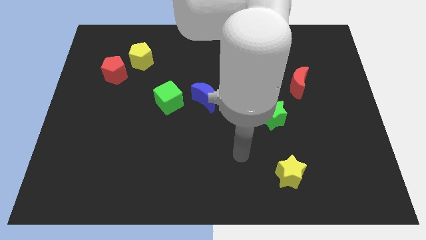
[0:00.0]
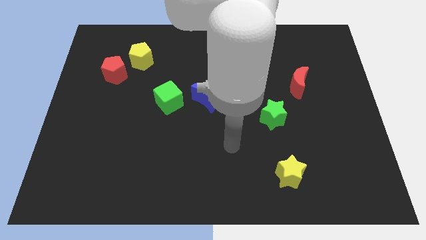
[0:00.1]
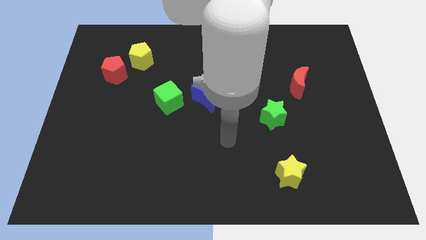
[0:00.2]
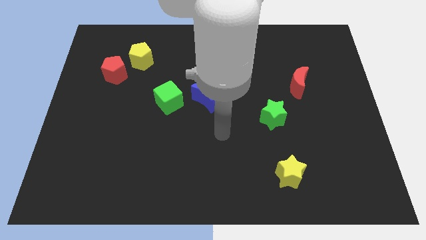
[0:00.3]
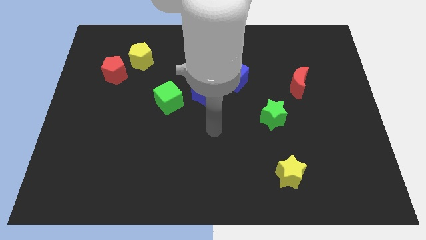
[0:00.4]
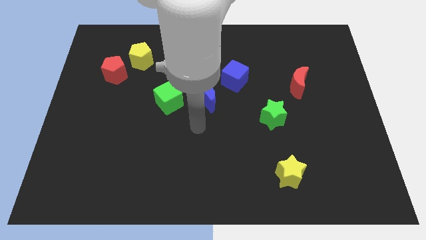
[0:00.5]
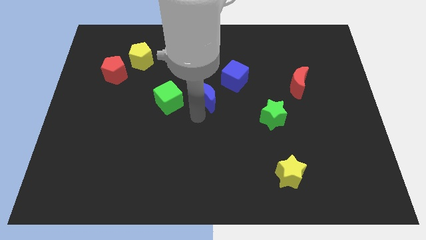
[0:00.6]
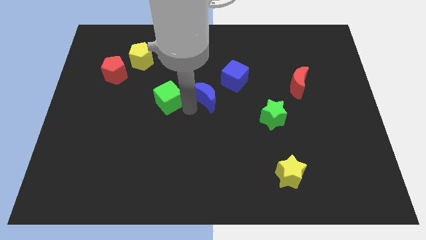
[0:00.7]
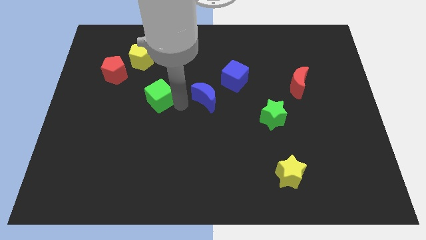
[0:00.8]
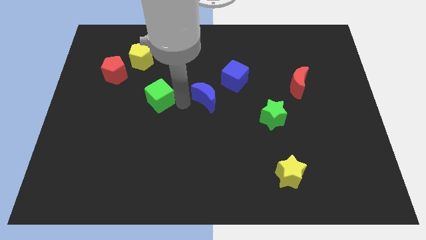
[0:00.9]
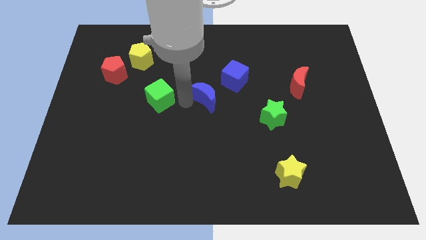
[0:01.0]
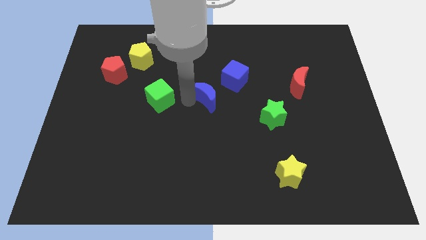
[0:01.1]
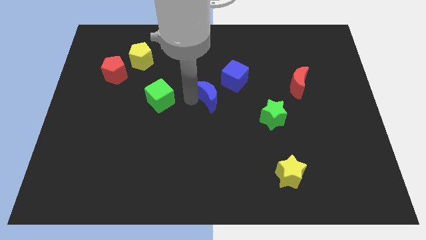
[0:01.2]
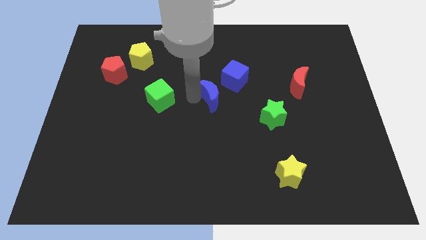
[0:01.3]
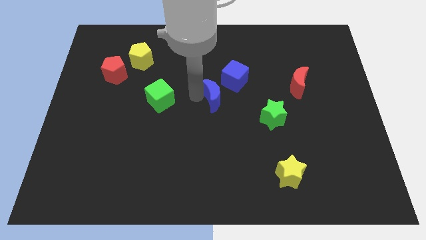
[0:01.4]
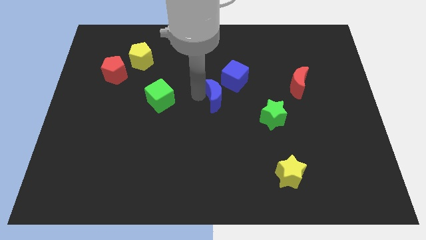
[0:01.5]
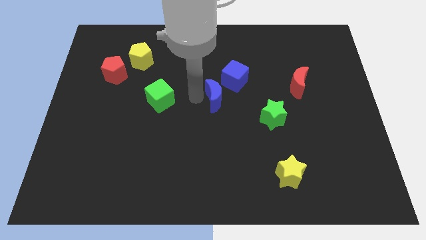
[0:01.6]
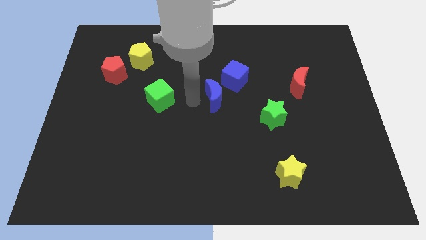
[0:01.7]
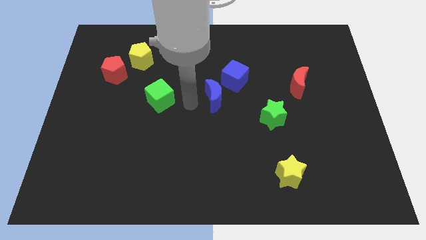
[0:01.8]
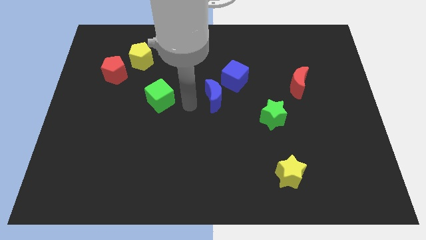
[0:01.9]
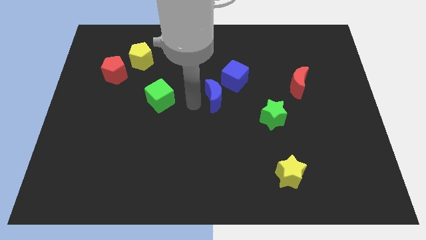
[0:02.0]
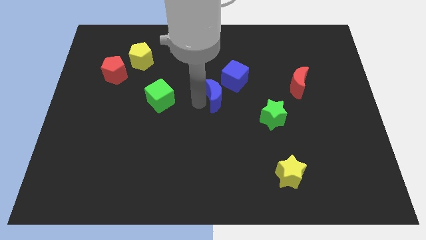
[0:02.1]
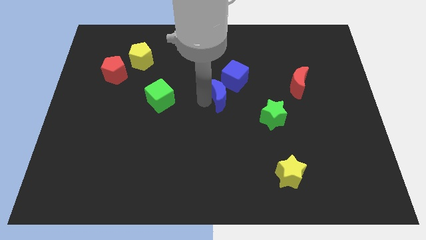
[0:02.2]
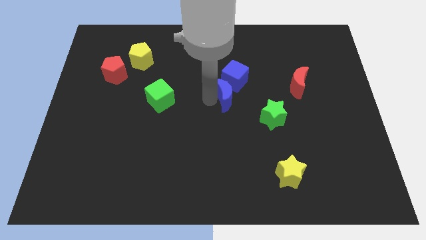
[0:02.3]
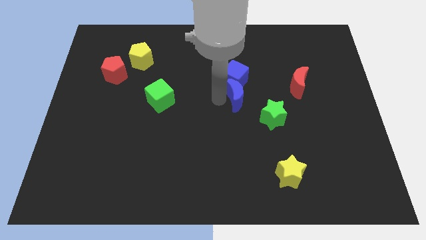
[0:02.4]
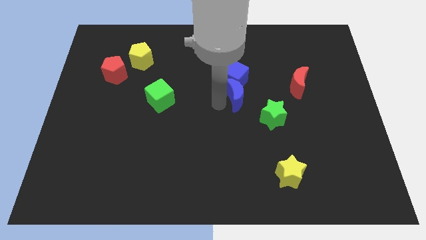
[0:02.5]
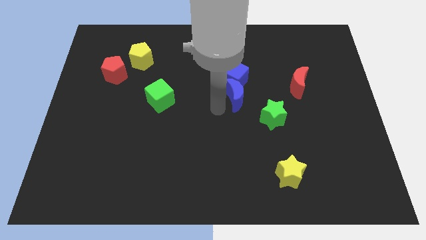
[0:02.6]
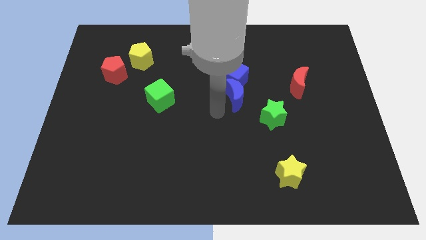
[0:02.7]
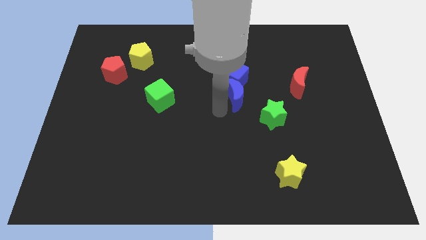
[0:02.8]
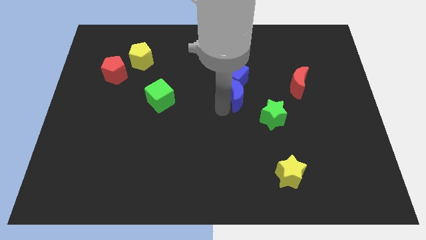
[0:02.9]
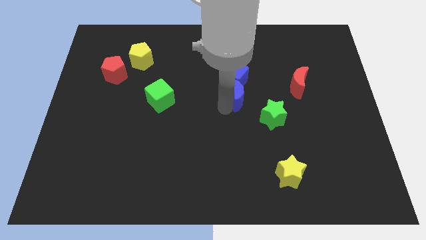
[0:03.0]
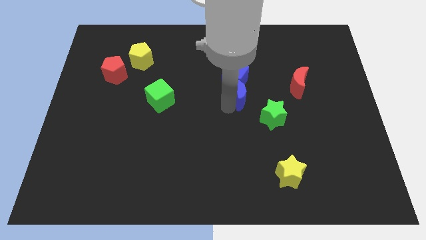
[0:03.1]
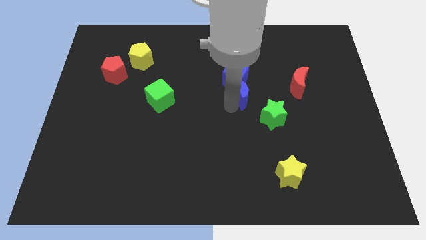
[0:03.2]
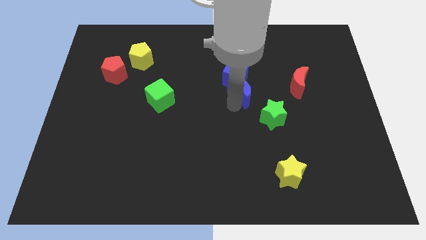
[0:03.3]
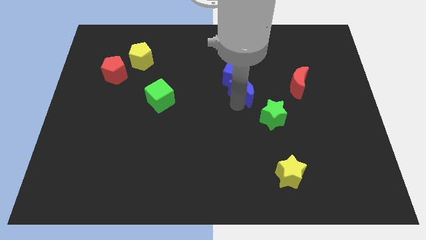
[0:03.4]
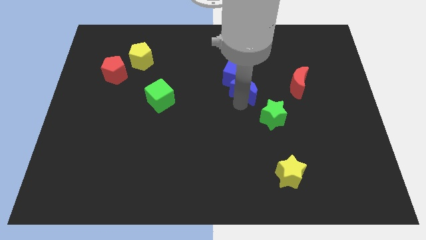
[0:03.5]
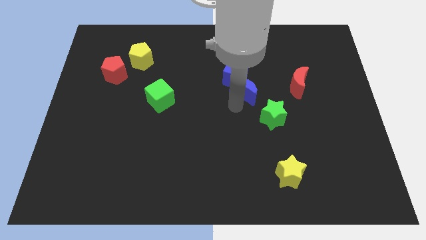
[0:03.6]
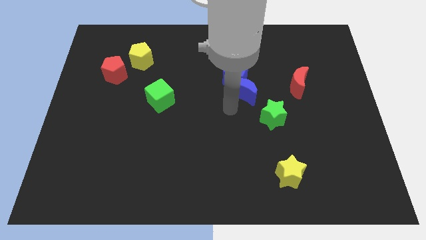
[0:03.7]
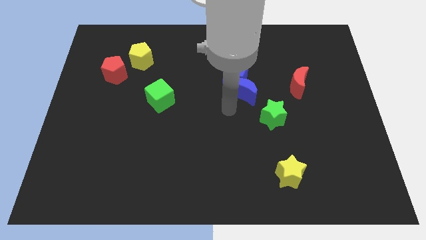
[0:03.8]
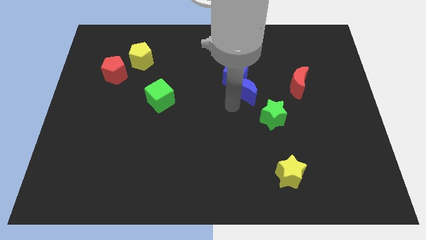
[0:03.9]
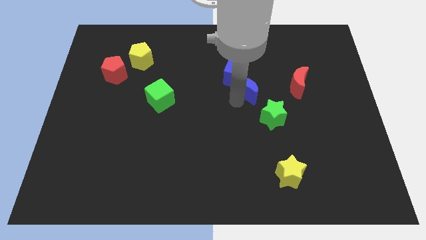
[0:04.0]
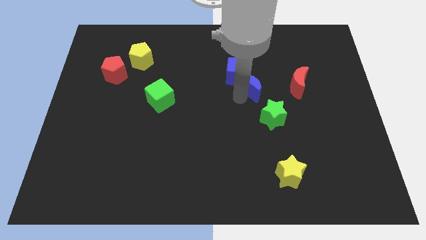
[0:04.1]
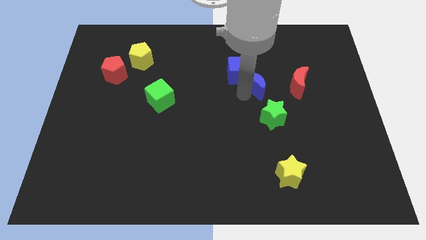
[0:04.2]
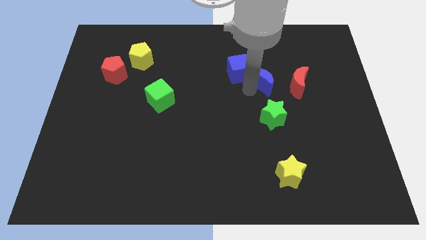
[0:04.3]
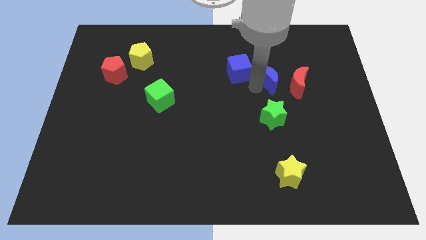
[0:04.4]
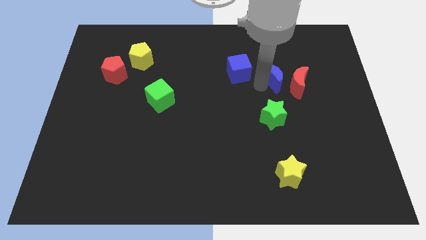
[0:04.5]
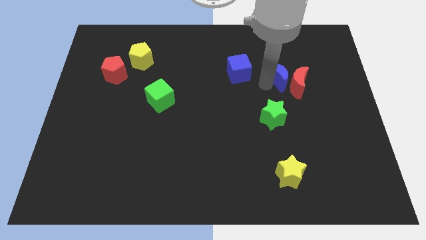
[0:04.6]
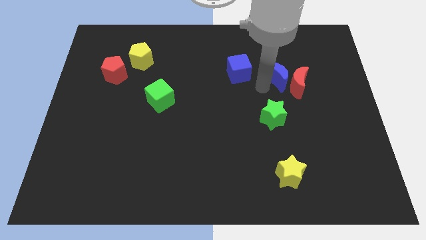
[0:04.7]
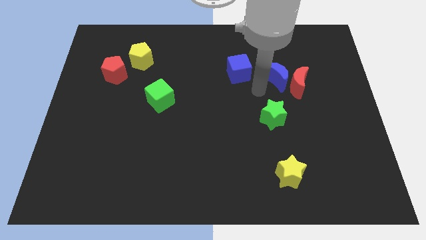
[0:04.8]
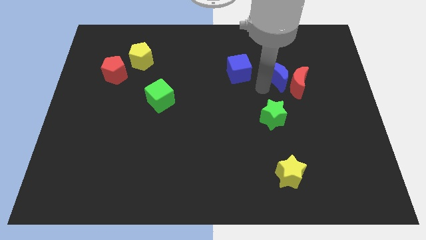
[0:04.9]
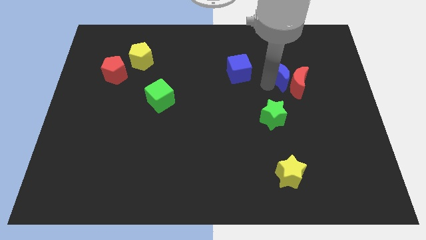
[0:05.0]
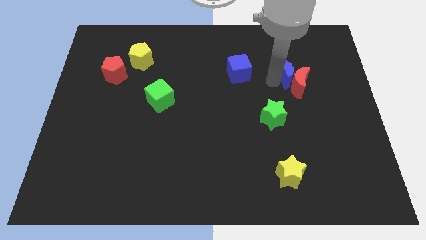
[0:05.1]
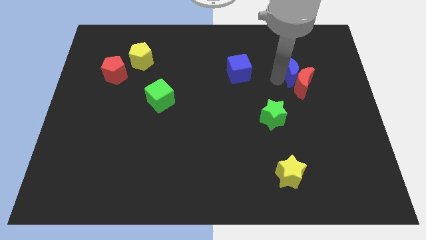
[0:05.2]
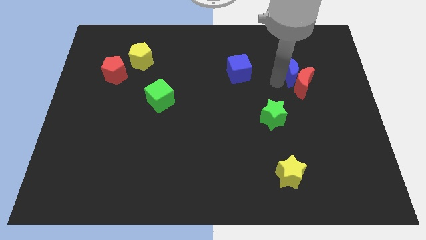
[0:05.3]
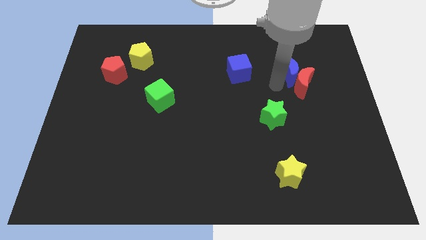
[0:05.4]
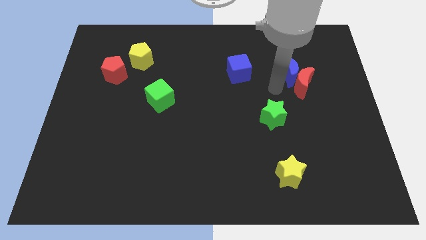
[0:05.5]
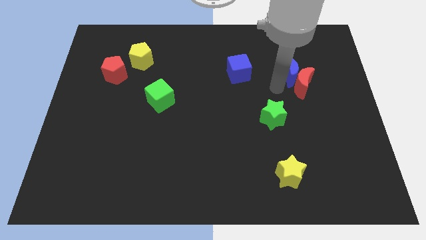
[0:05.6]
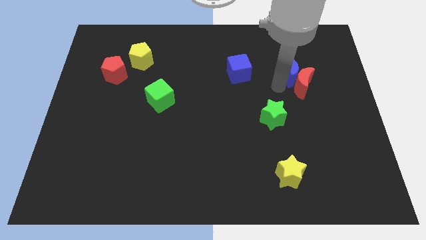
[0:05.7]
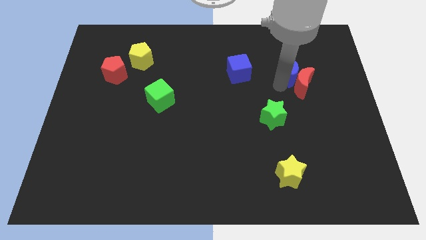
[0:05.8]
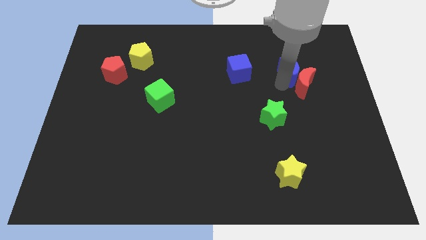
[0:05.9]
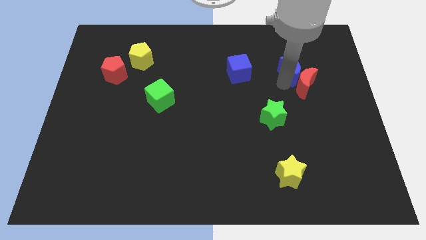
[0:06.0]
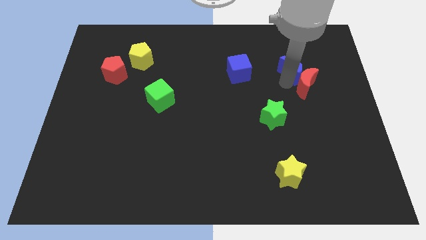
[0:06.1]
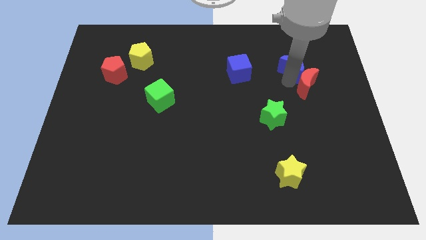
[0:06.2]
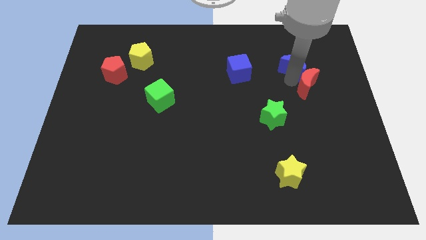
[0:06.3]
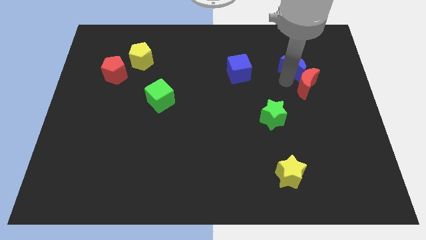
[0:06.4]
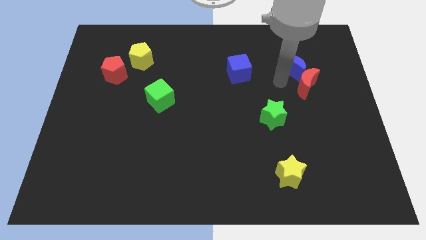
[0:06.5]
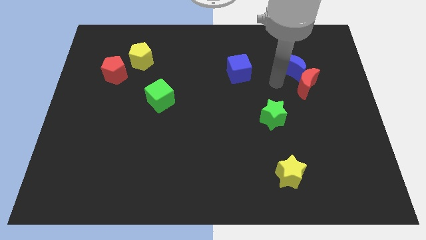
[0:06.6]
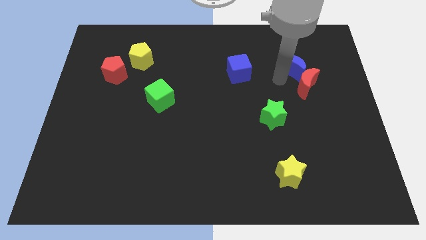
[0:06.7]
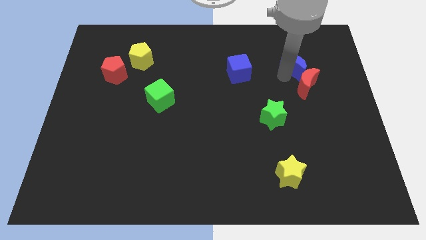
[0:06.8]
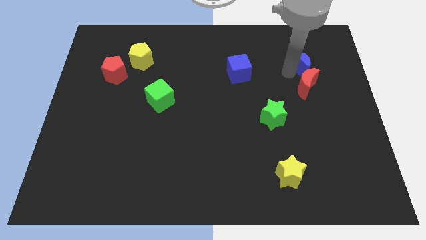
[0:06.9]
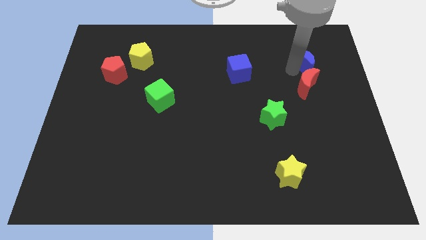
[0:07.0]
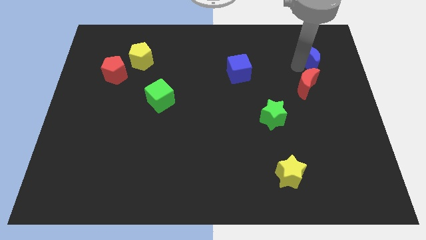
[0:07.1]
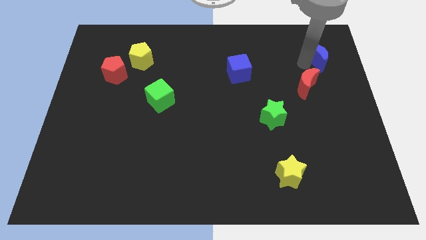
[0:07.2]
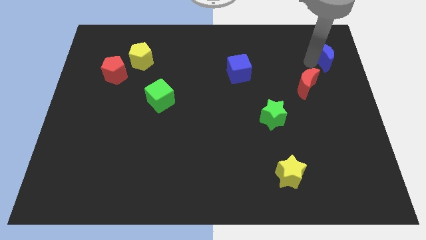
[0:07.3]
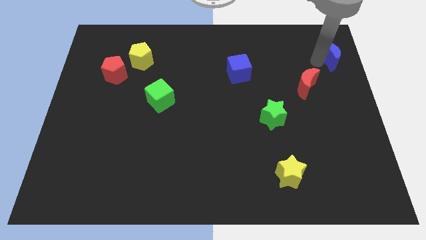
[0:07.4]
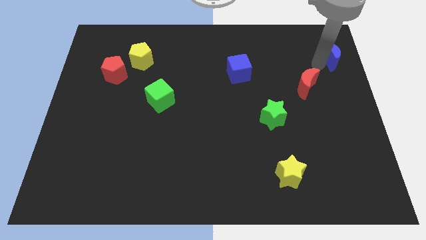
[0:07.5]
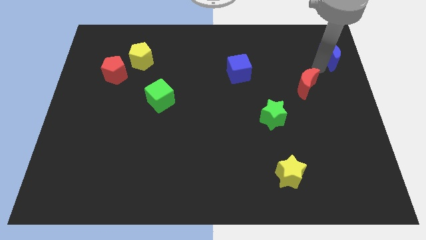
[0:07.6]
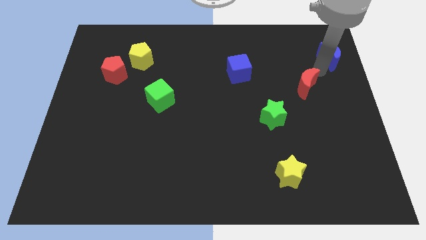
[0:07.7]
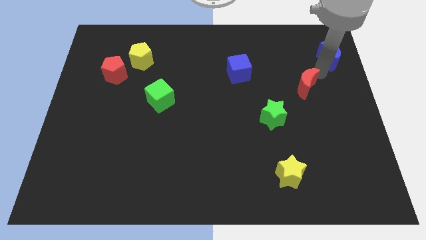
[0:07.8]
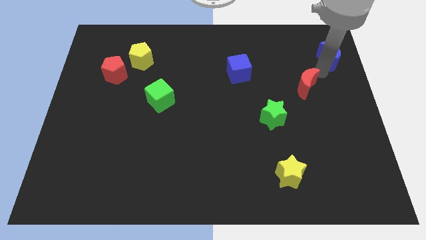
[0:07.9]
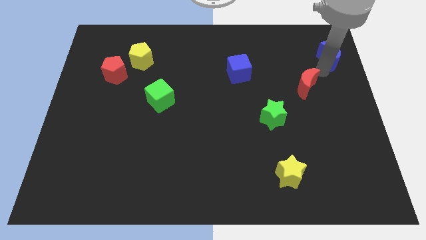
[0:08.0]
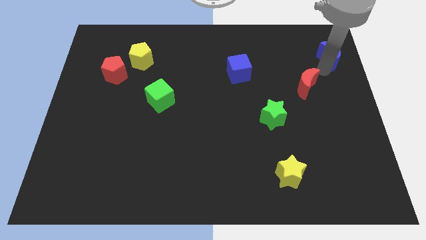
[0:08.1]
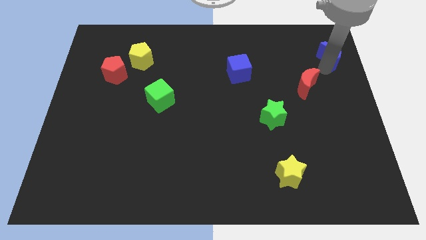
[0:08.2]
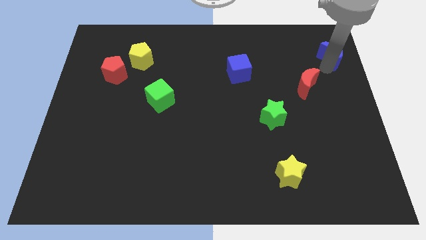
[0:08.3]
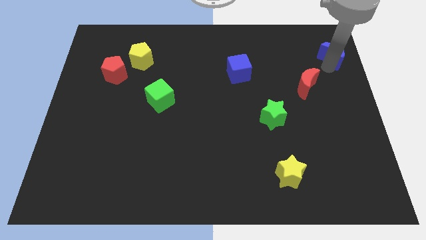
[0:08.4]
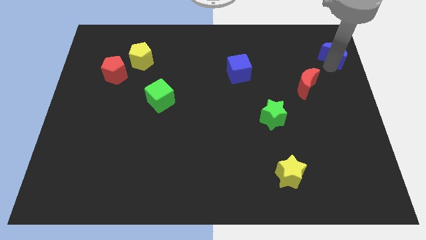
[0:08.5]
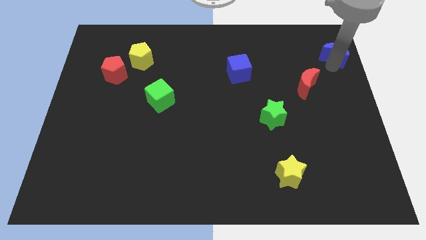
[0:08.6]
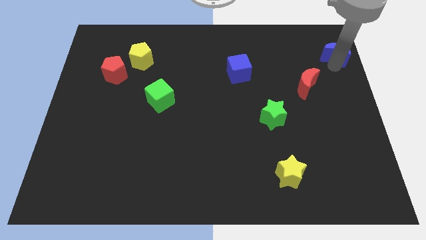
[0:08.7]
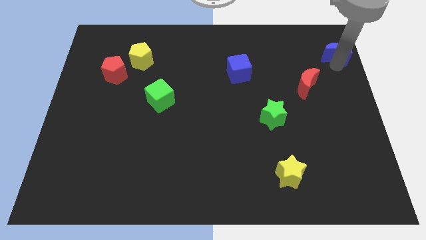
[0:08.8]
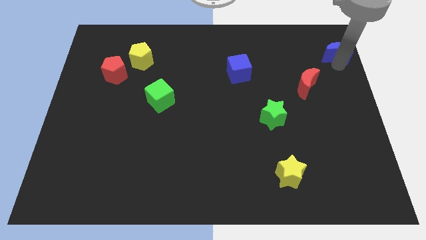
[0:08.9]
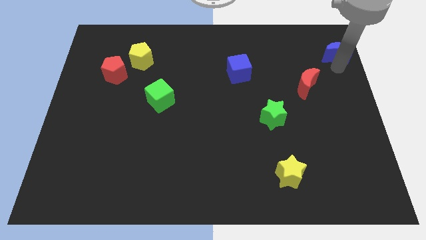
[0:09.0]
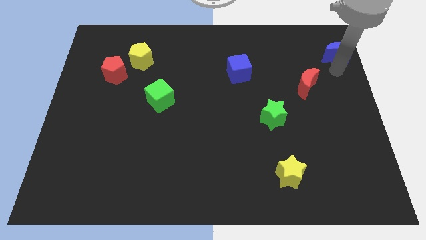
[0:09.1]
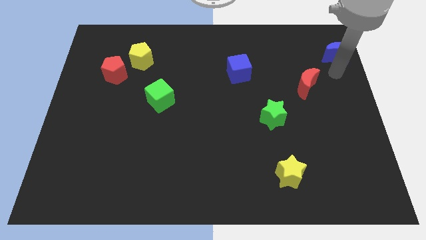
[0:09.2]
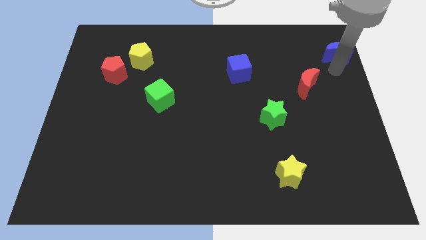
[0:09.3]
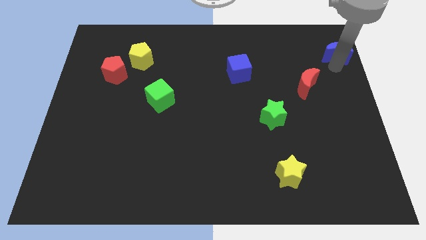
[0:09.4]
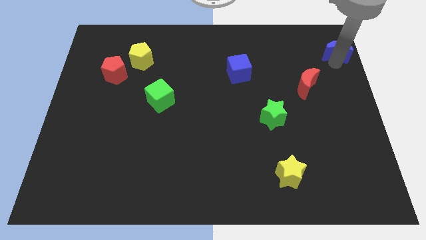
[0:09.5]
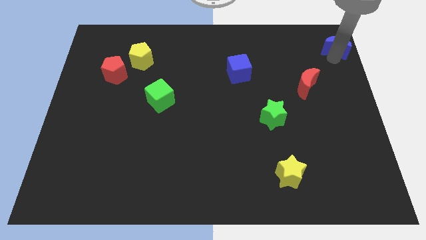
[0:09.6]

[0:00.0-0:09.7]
put the blue moon to the top right of the board
